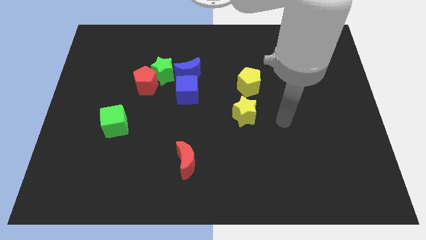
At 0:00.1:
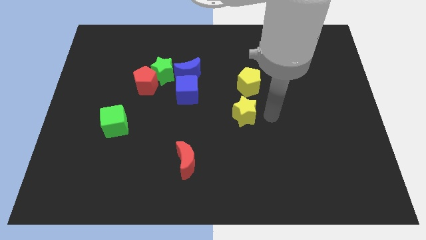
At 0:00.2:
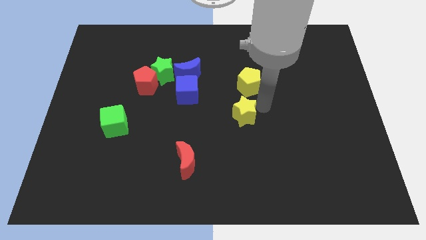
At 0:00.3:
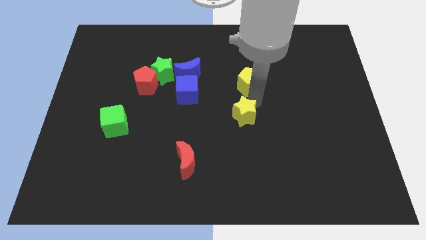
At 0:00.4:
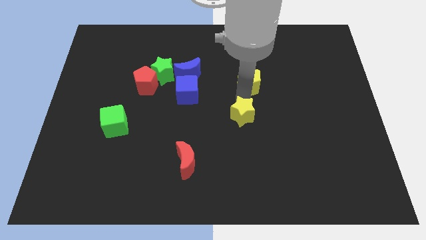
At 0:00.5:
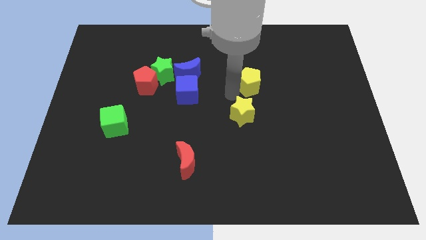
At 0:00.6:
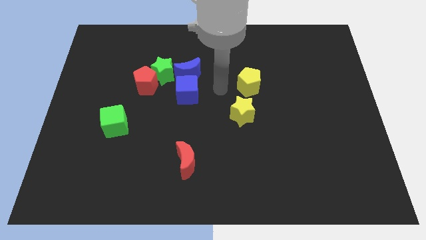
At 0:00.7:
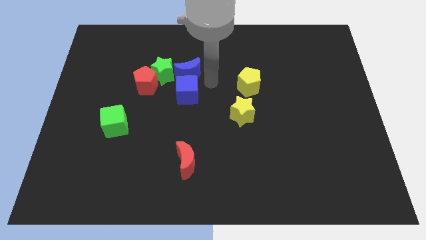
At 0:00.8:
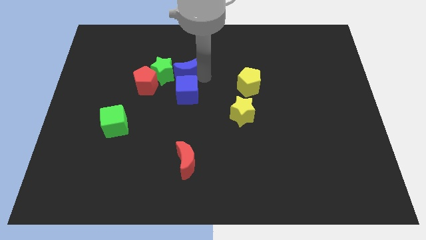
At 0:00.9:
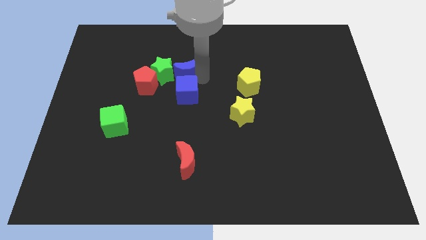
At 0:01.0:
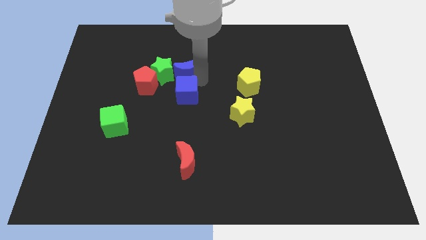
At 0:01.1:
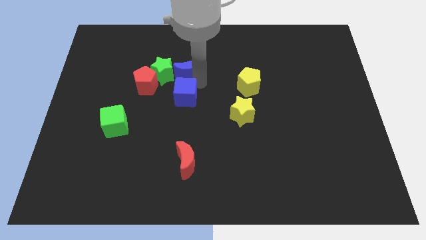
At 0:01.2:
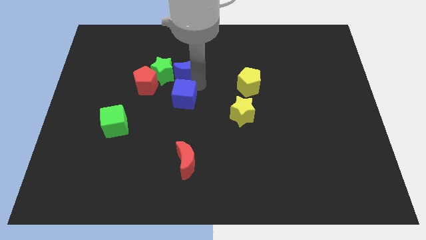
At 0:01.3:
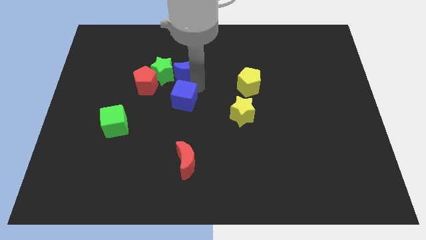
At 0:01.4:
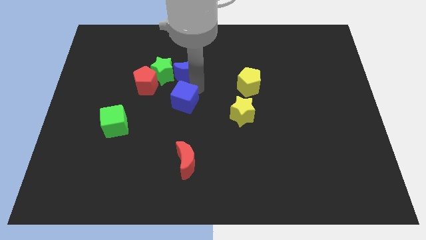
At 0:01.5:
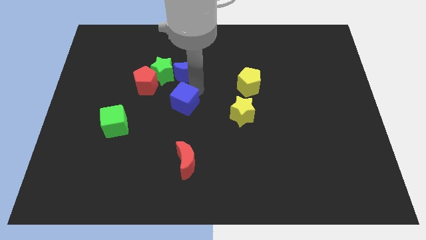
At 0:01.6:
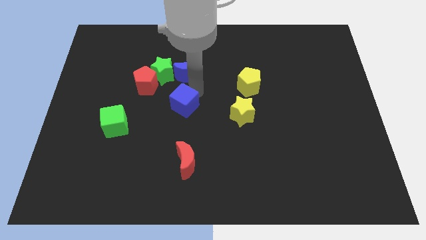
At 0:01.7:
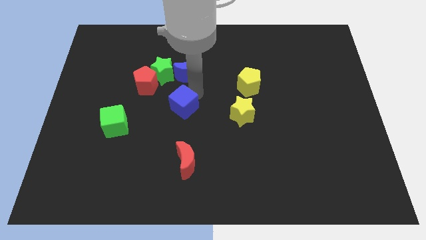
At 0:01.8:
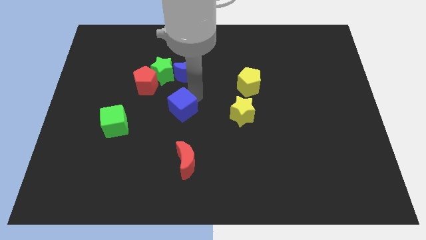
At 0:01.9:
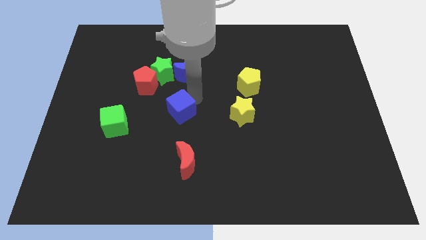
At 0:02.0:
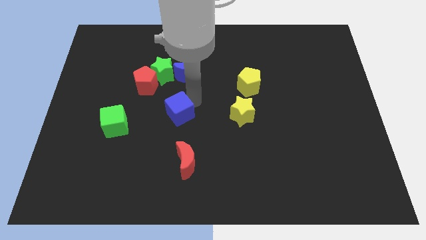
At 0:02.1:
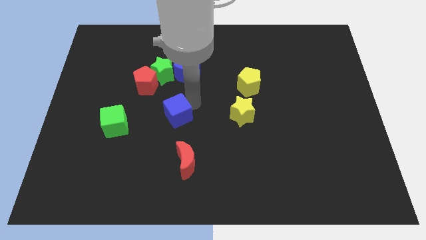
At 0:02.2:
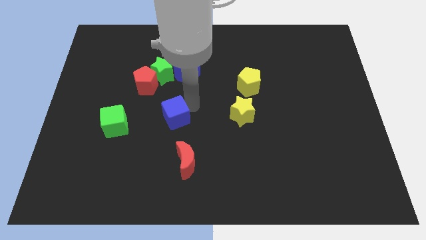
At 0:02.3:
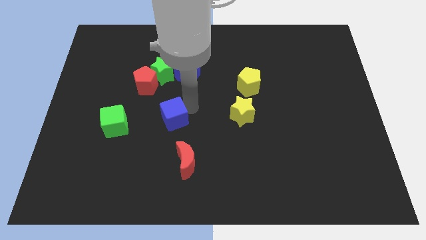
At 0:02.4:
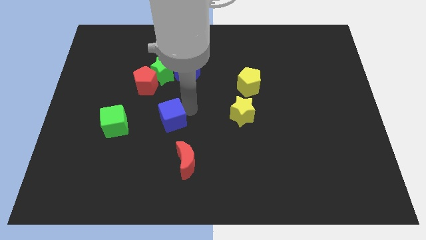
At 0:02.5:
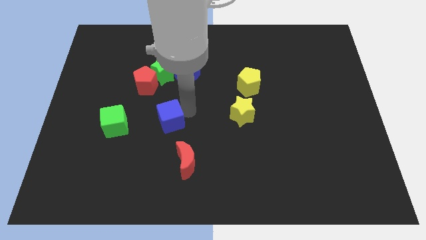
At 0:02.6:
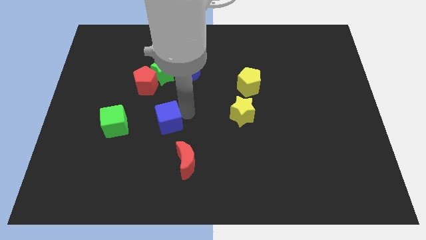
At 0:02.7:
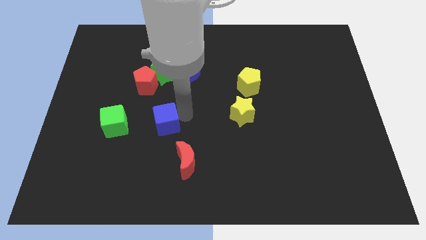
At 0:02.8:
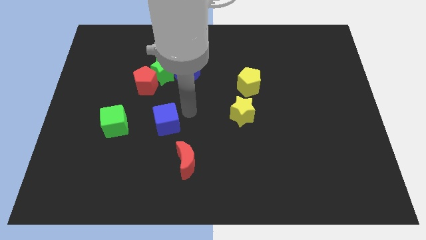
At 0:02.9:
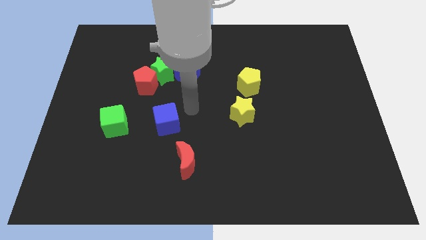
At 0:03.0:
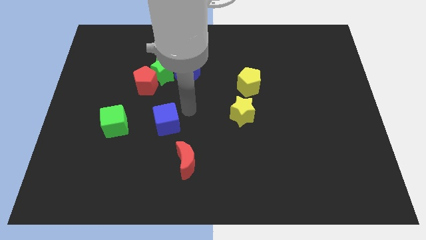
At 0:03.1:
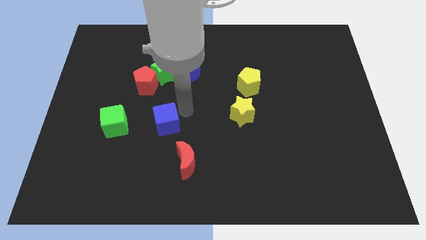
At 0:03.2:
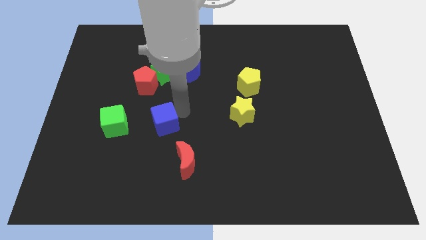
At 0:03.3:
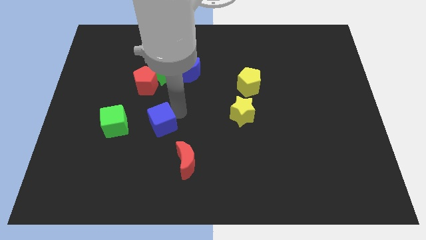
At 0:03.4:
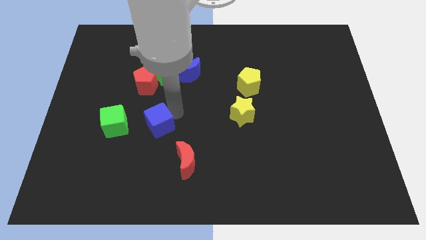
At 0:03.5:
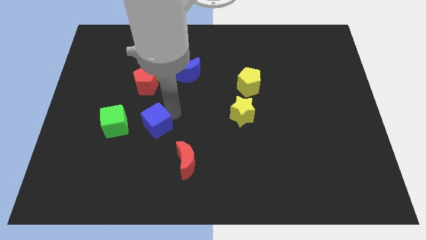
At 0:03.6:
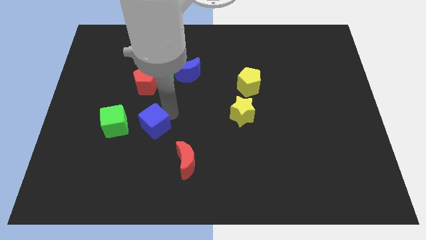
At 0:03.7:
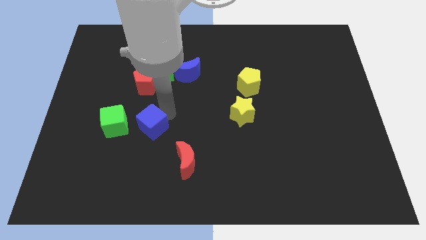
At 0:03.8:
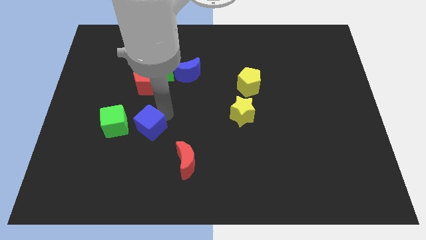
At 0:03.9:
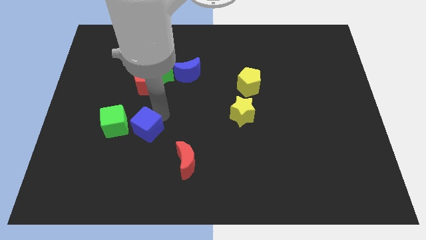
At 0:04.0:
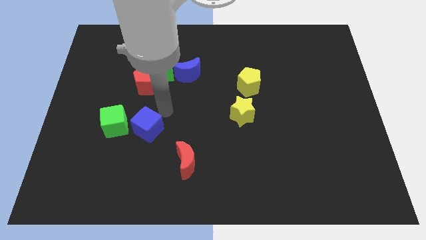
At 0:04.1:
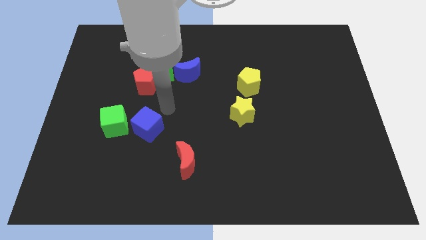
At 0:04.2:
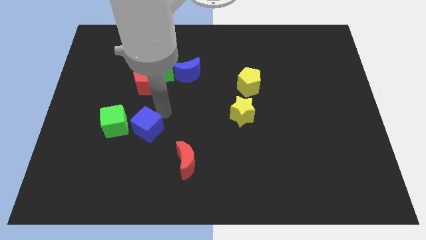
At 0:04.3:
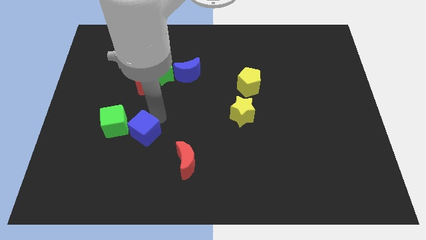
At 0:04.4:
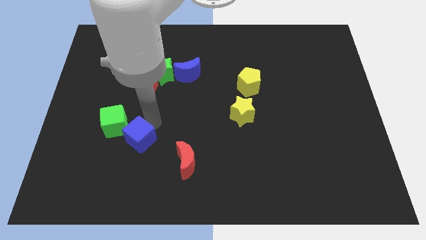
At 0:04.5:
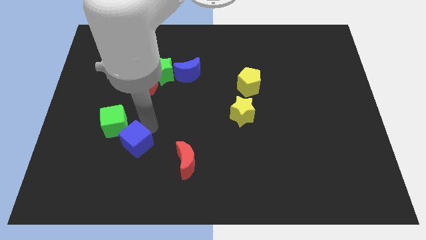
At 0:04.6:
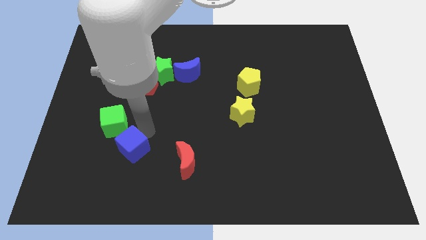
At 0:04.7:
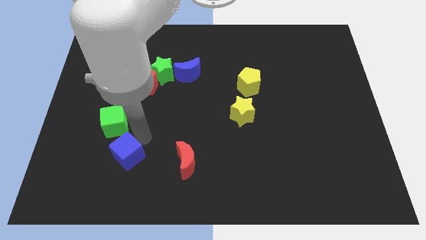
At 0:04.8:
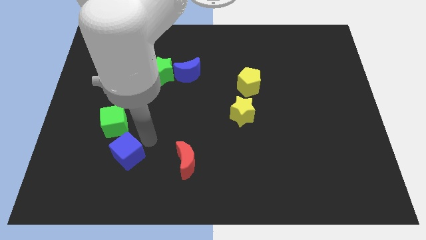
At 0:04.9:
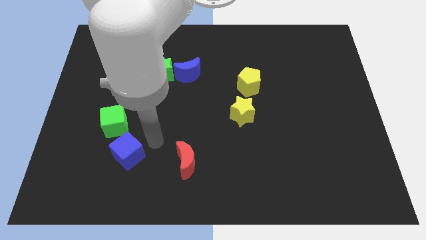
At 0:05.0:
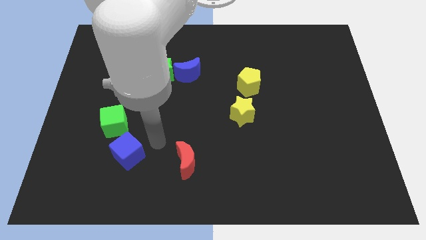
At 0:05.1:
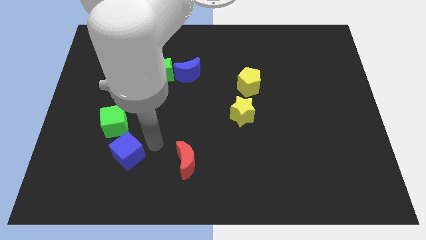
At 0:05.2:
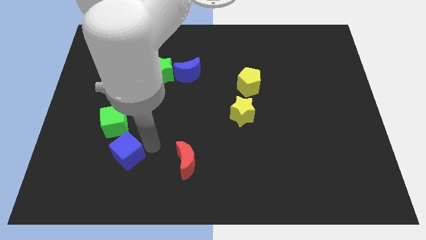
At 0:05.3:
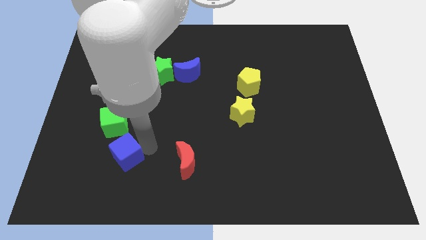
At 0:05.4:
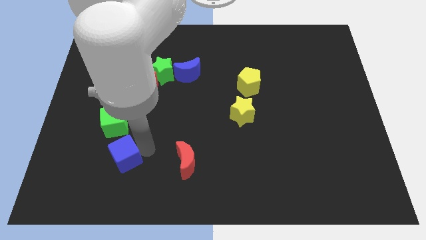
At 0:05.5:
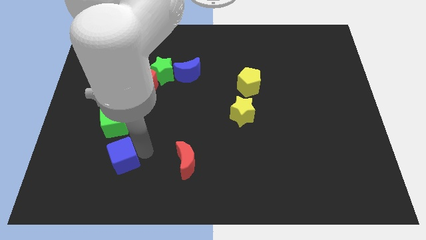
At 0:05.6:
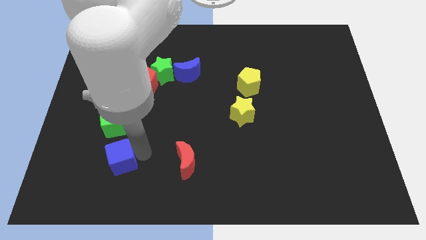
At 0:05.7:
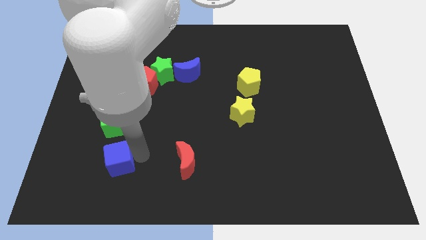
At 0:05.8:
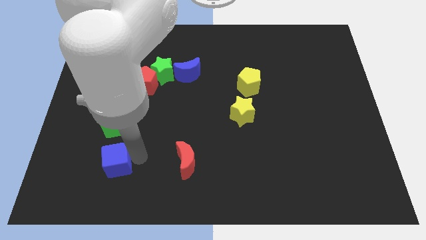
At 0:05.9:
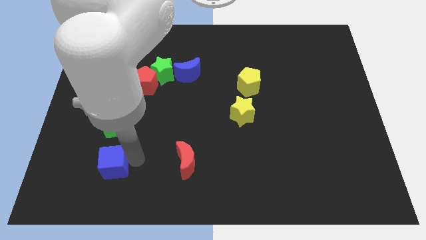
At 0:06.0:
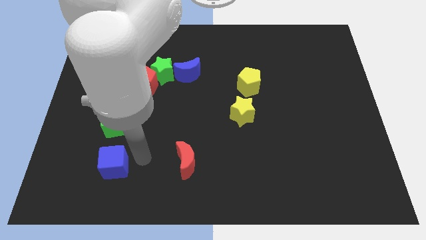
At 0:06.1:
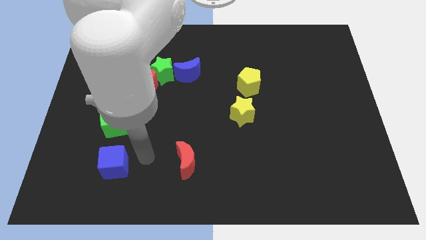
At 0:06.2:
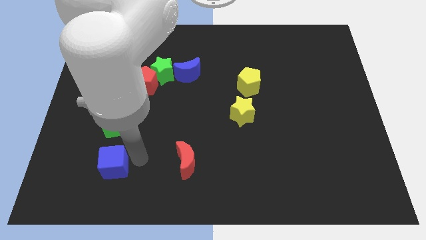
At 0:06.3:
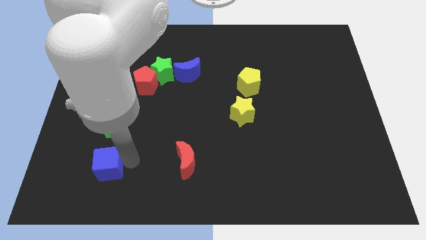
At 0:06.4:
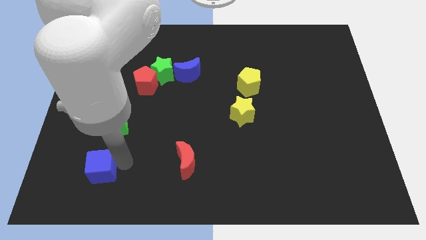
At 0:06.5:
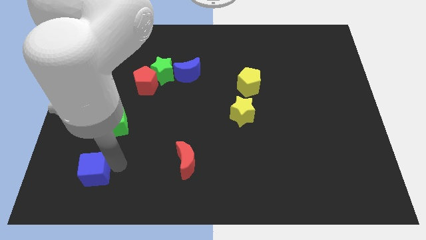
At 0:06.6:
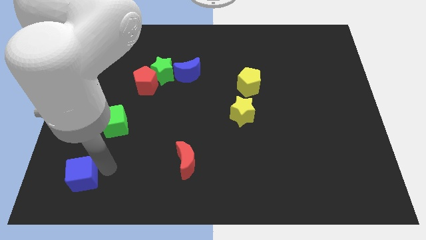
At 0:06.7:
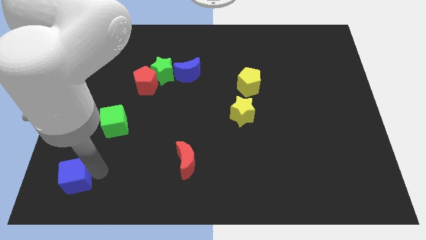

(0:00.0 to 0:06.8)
push the blue cube to the lower left corner
